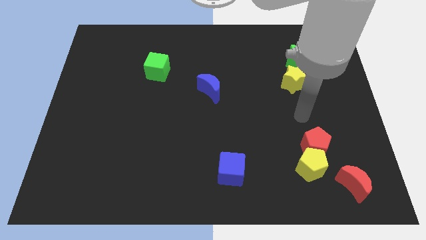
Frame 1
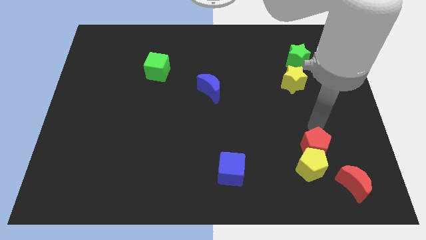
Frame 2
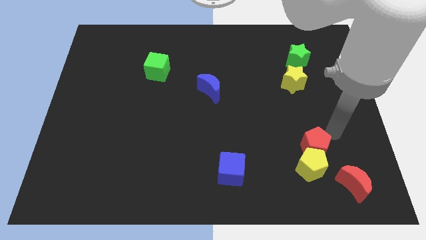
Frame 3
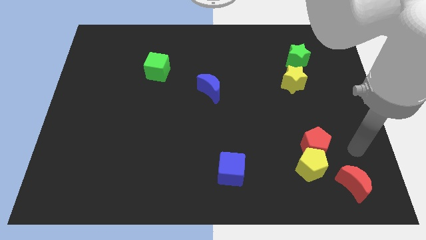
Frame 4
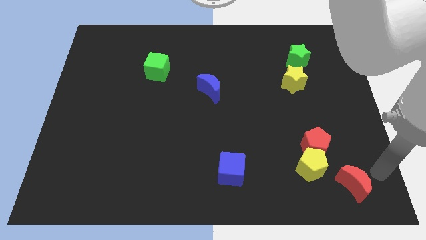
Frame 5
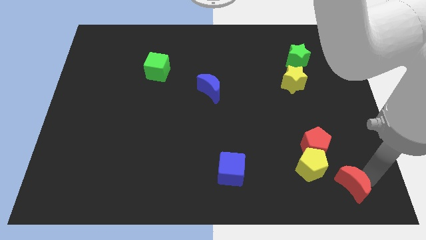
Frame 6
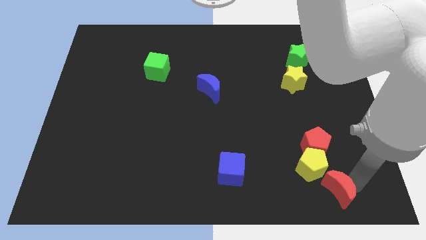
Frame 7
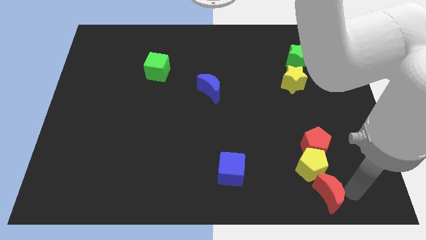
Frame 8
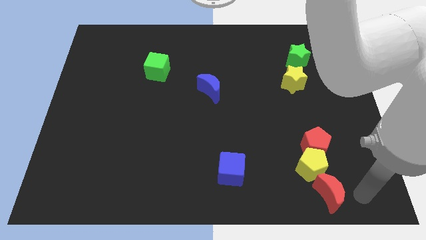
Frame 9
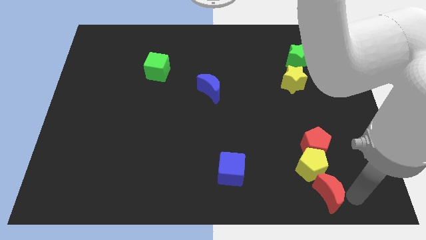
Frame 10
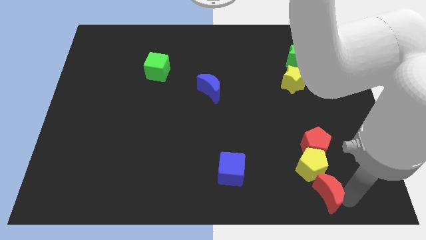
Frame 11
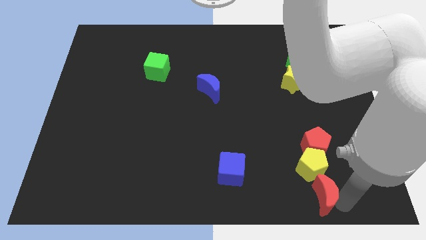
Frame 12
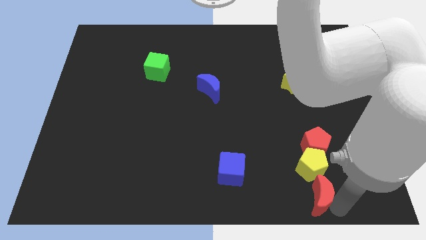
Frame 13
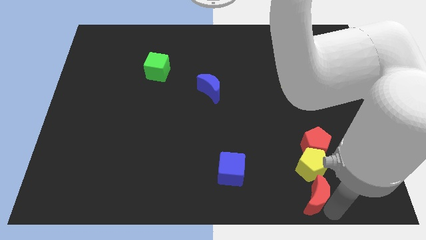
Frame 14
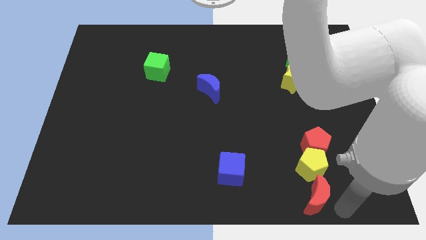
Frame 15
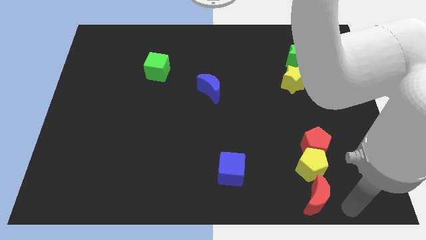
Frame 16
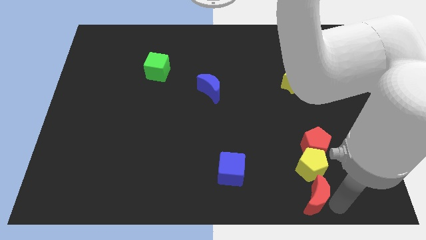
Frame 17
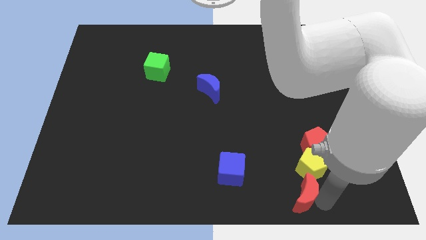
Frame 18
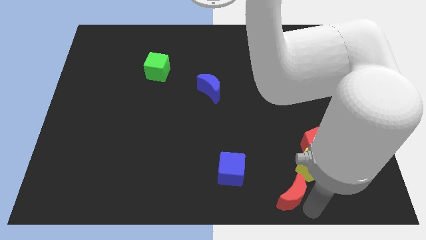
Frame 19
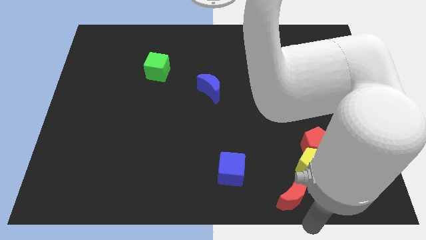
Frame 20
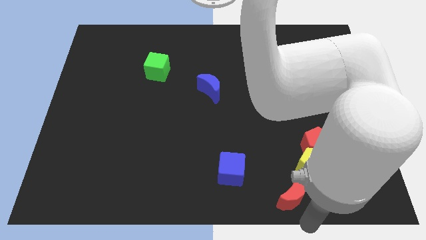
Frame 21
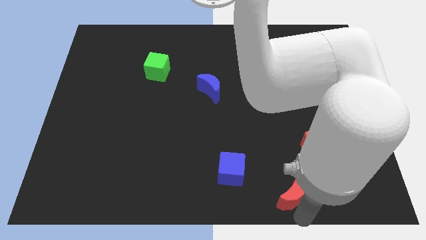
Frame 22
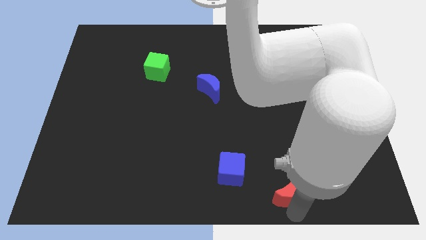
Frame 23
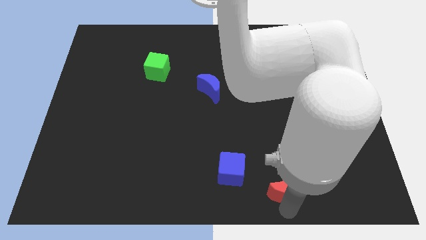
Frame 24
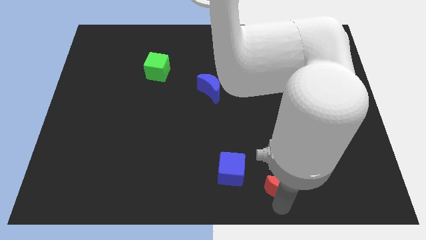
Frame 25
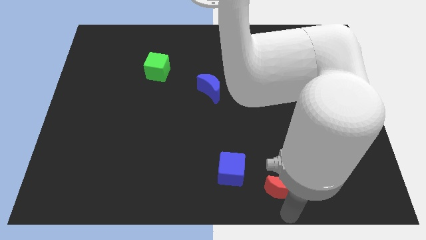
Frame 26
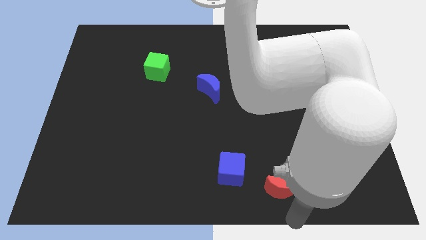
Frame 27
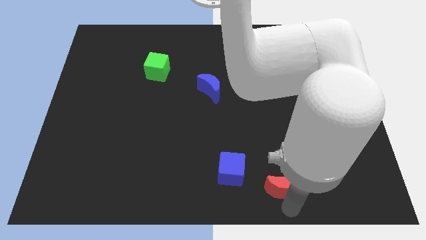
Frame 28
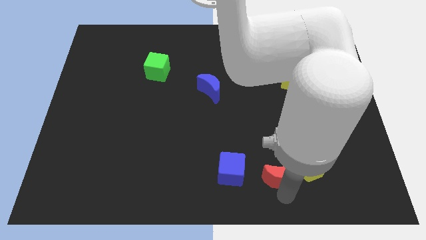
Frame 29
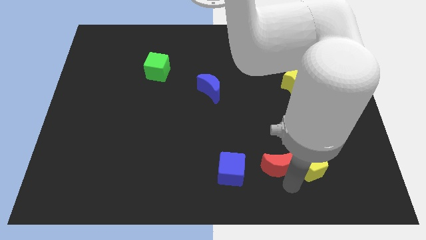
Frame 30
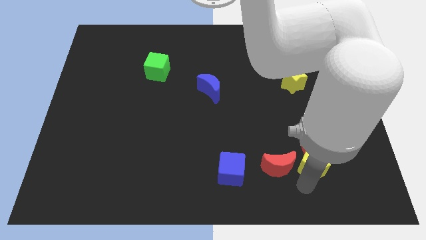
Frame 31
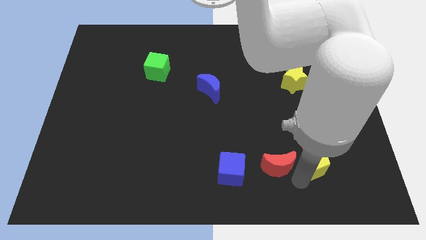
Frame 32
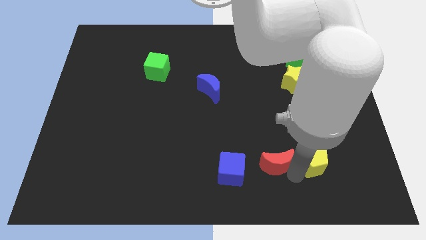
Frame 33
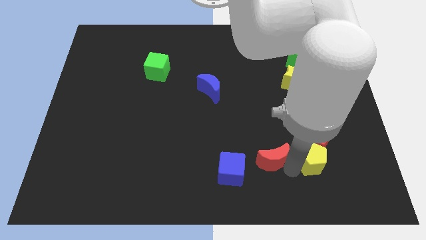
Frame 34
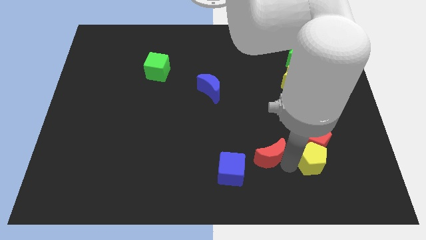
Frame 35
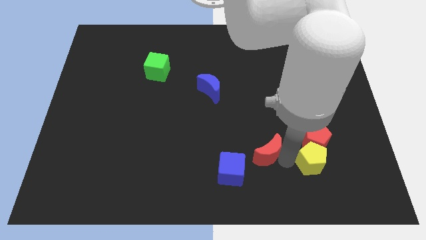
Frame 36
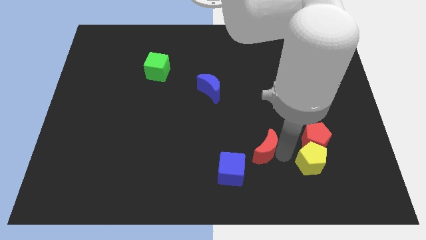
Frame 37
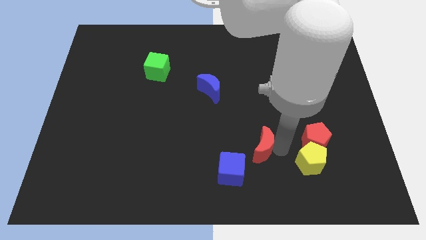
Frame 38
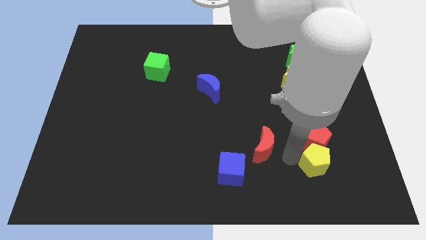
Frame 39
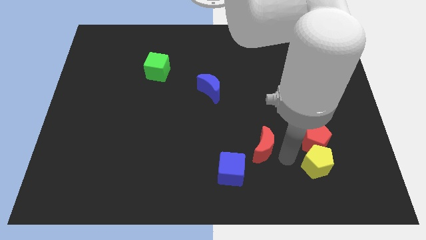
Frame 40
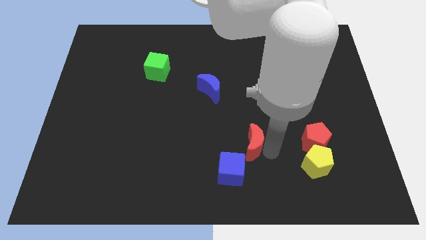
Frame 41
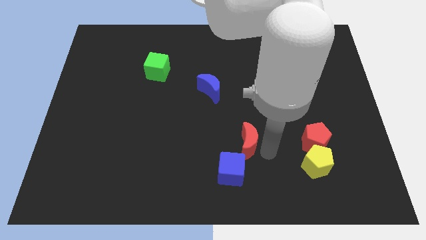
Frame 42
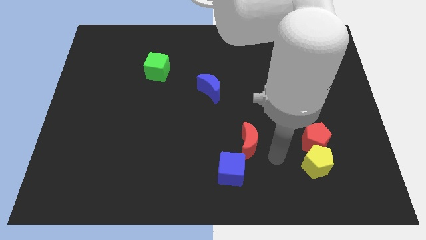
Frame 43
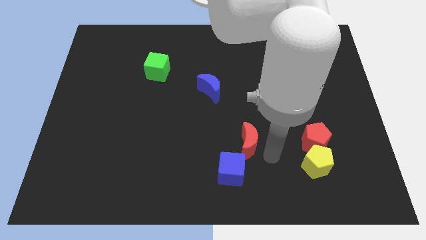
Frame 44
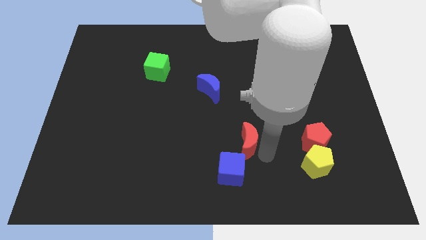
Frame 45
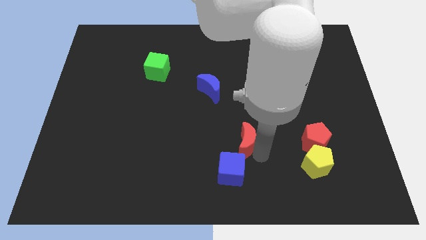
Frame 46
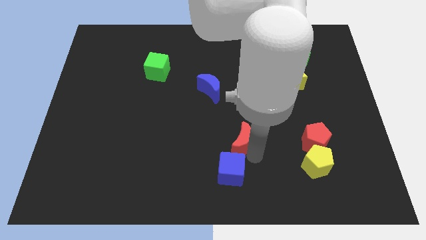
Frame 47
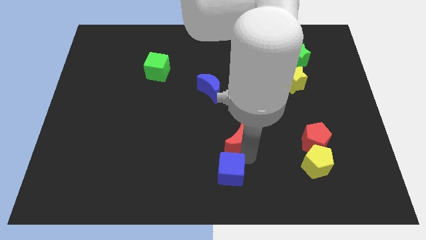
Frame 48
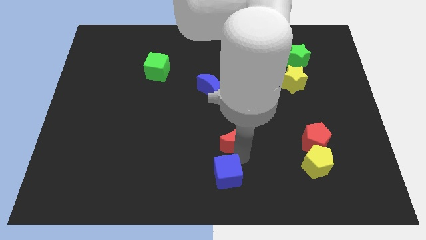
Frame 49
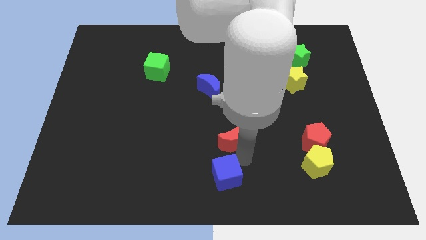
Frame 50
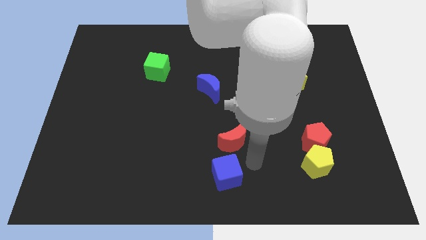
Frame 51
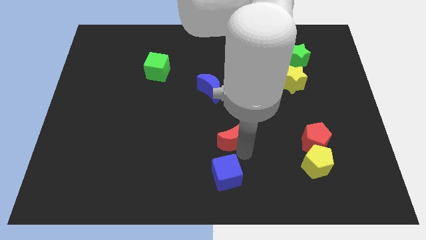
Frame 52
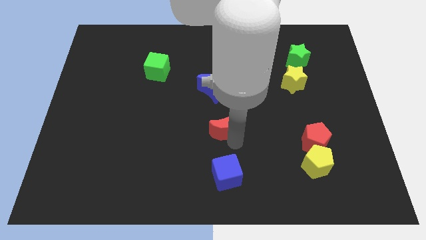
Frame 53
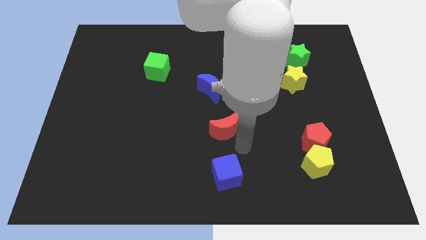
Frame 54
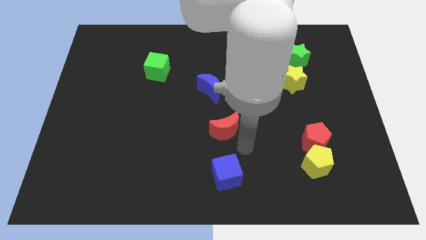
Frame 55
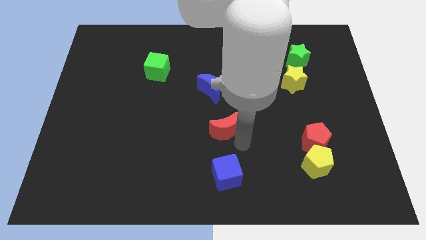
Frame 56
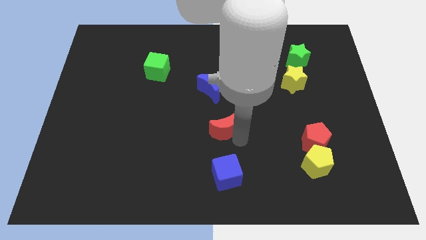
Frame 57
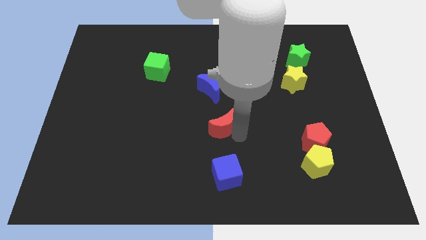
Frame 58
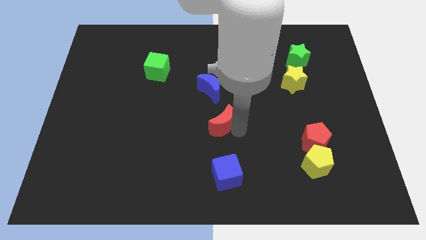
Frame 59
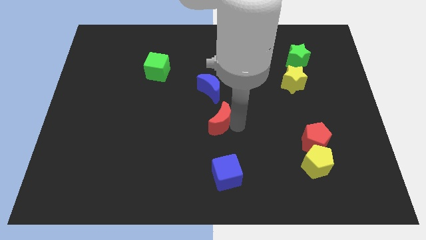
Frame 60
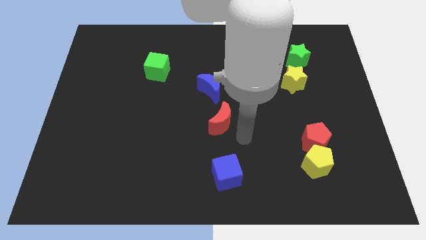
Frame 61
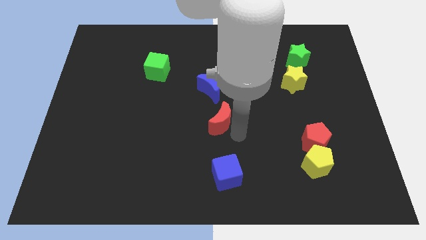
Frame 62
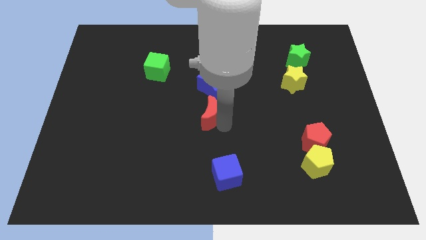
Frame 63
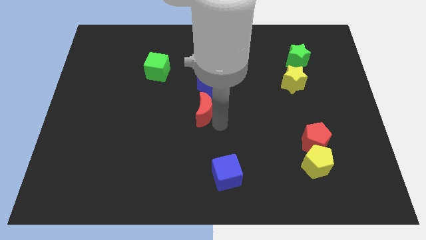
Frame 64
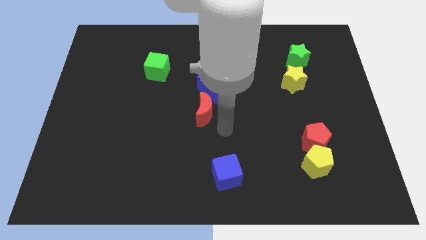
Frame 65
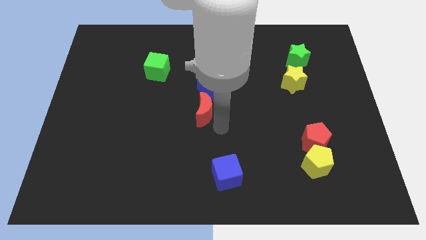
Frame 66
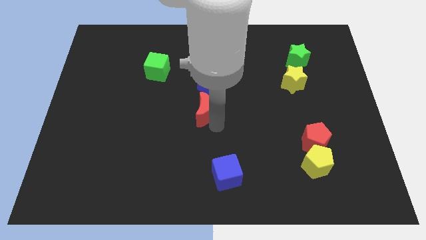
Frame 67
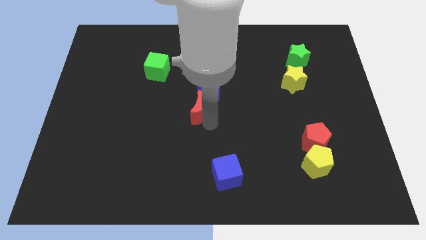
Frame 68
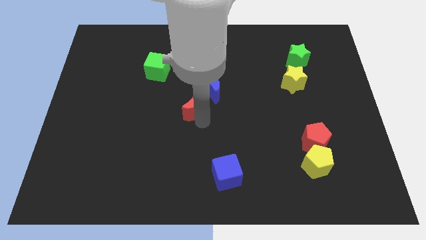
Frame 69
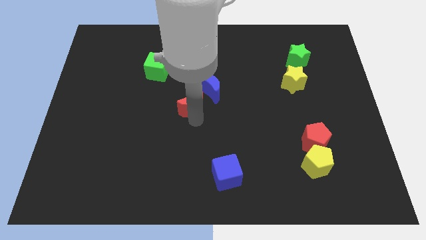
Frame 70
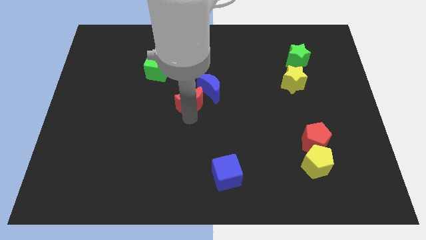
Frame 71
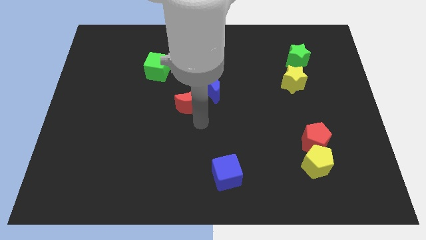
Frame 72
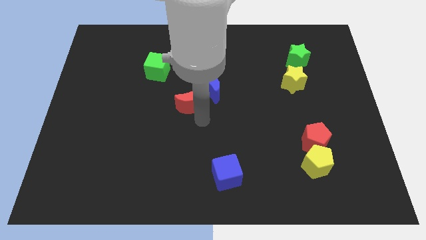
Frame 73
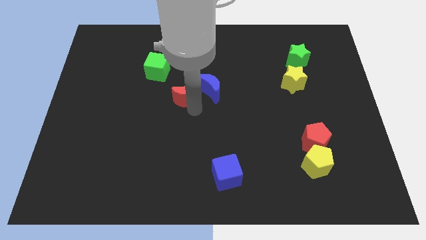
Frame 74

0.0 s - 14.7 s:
put the red moon diagonally down and to the right of the green cube
